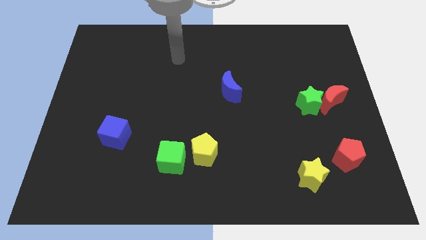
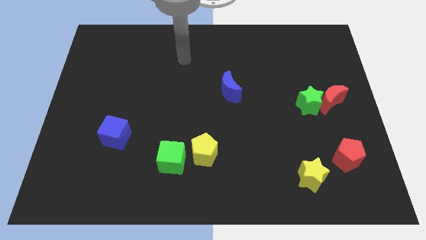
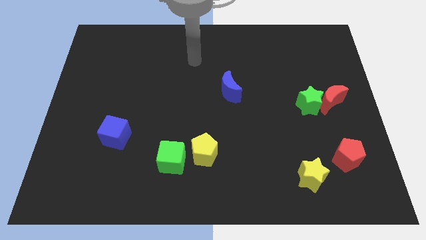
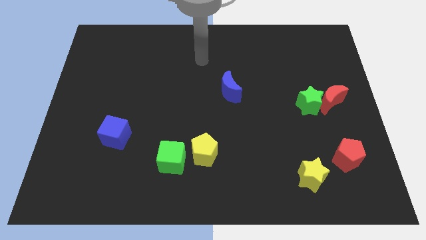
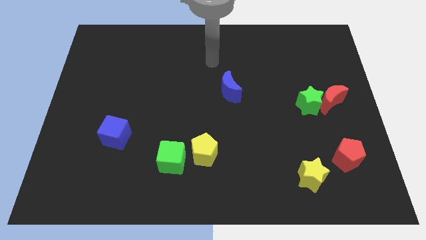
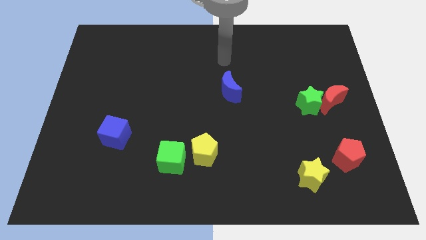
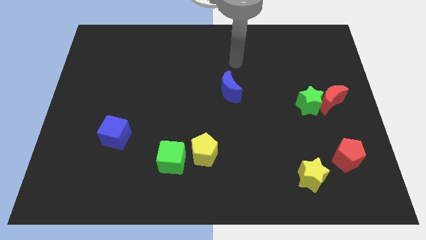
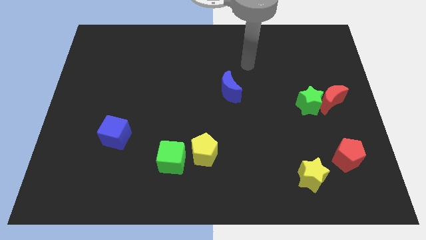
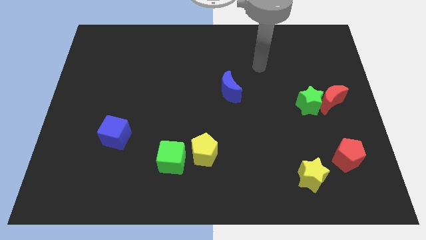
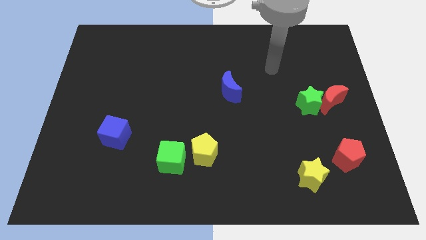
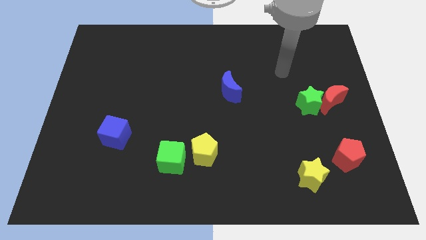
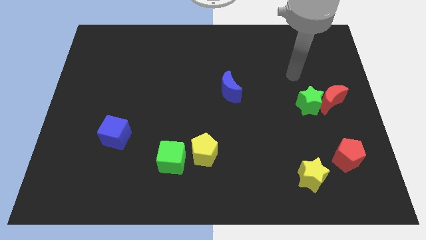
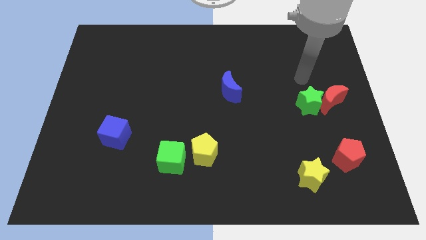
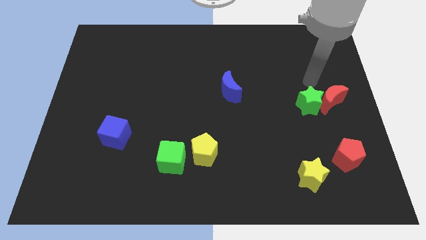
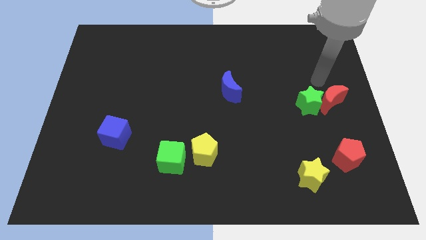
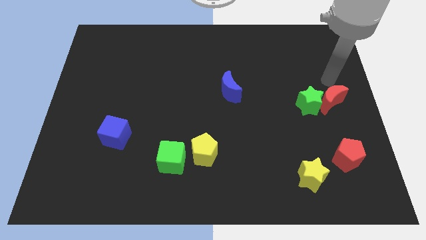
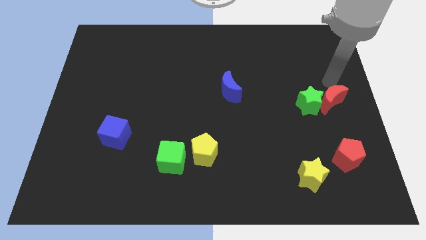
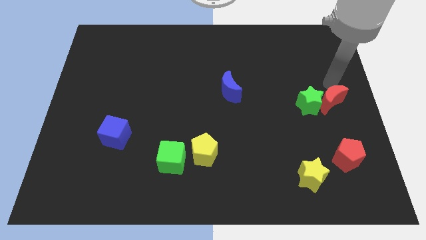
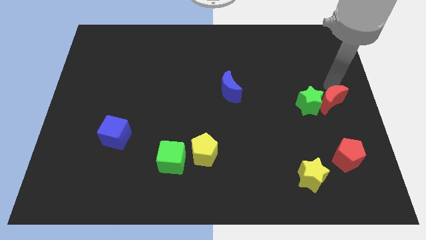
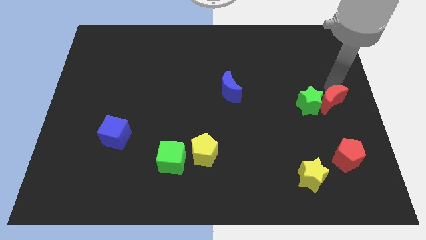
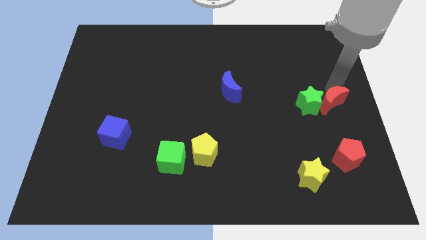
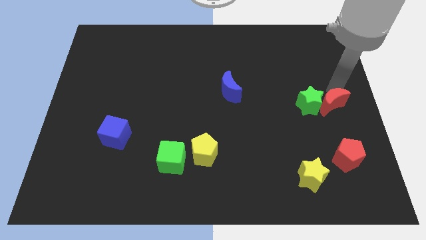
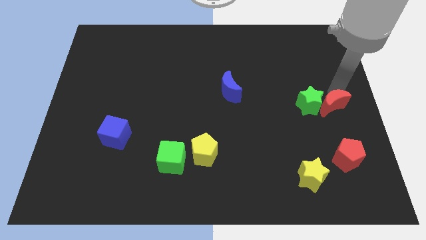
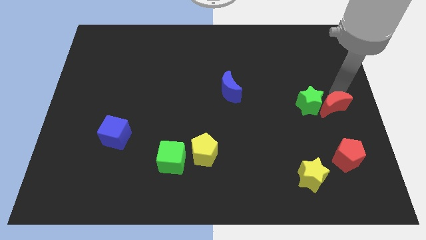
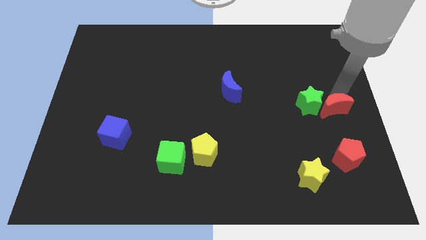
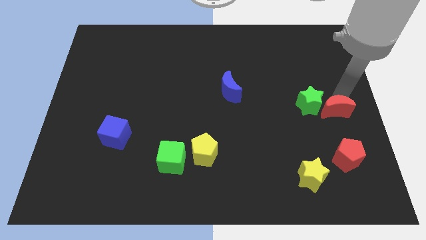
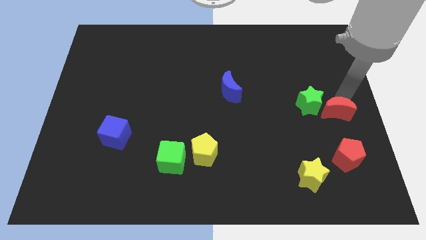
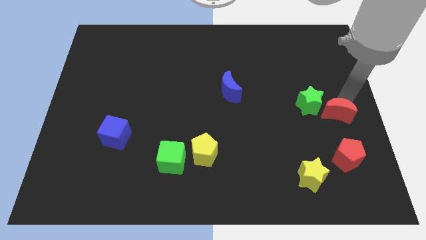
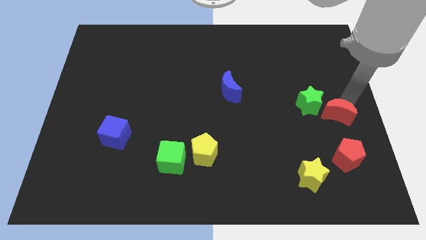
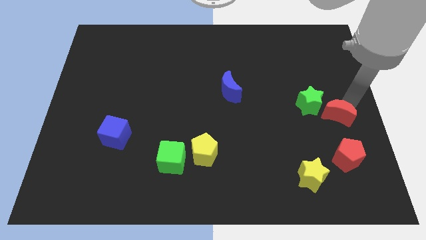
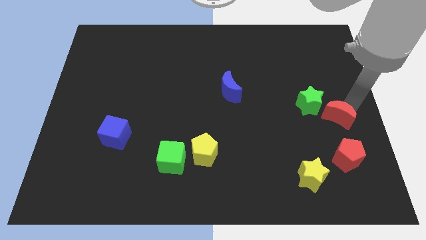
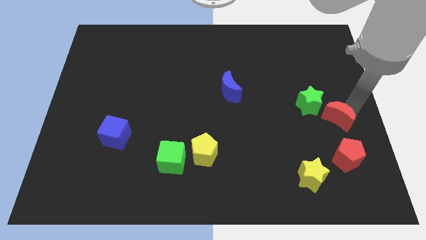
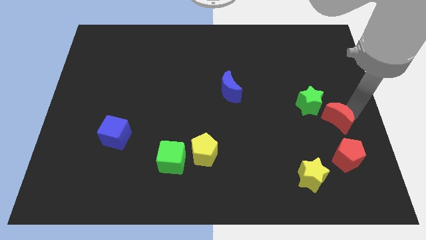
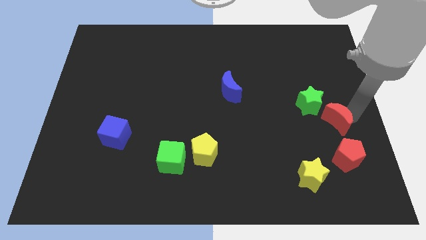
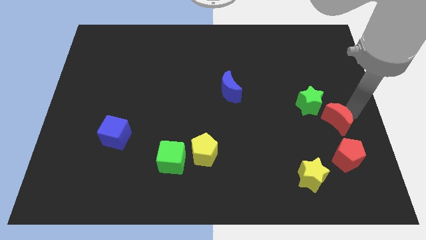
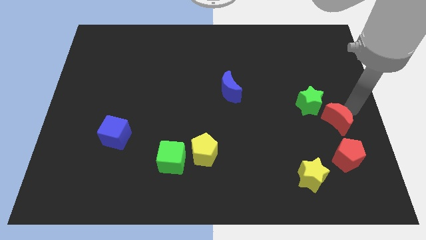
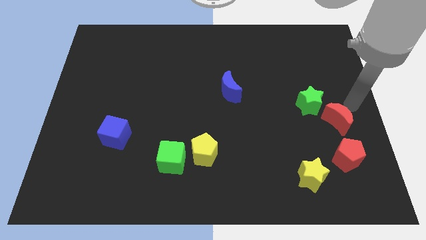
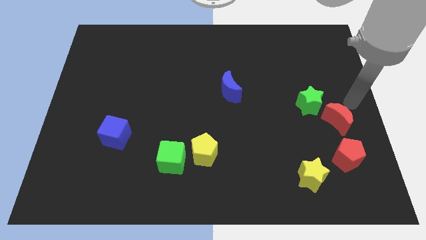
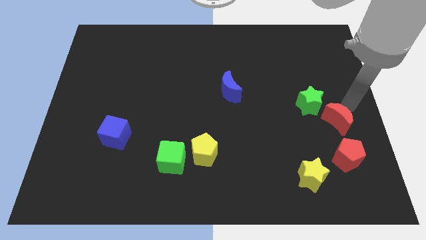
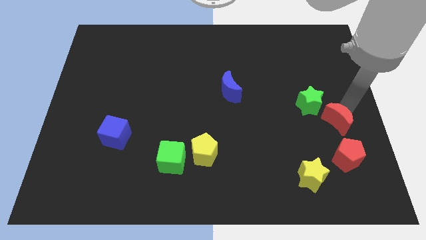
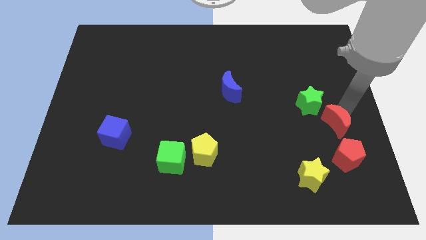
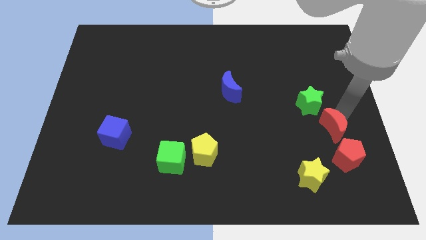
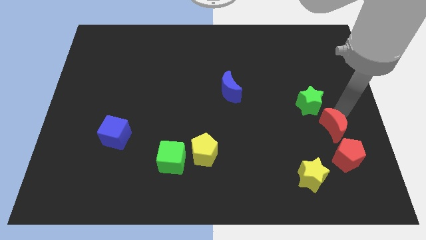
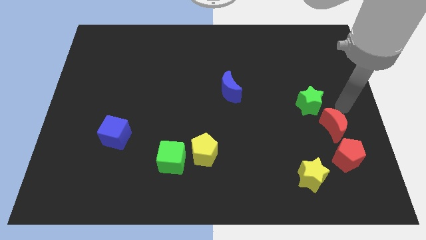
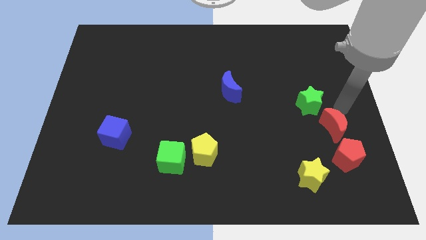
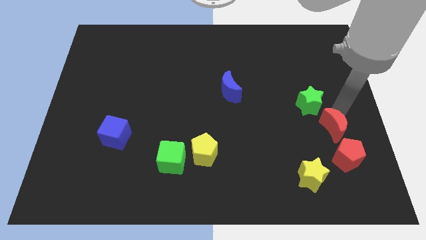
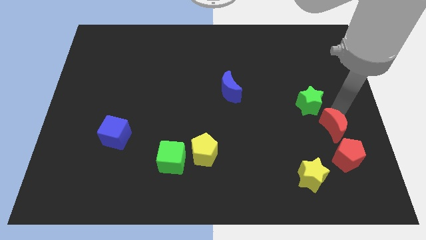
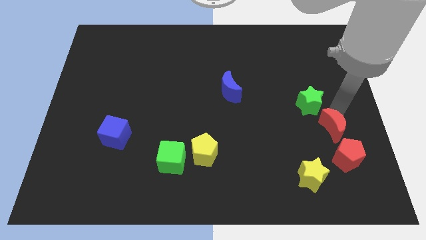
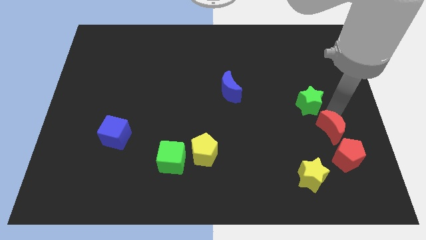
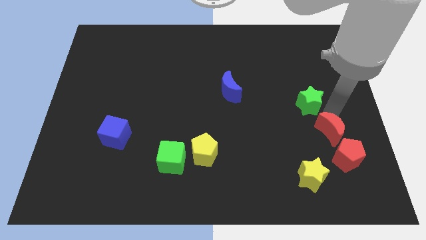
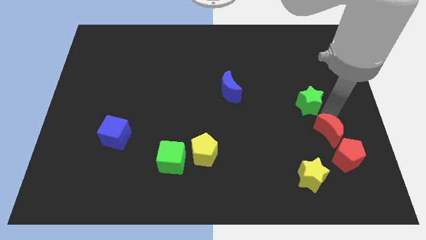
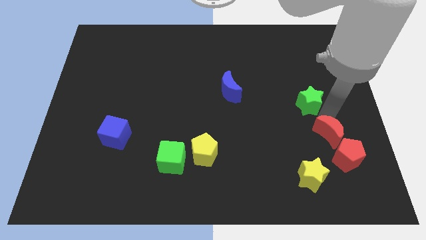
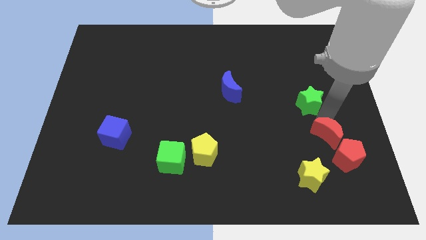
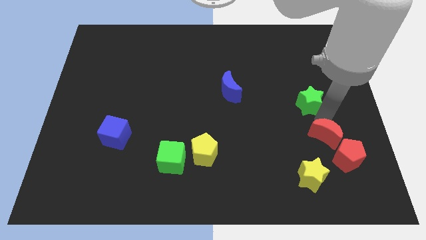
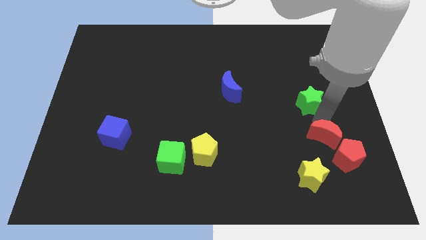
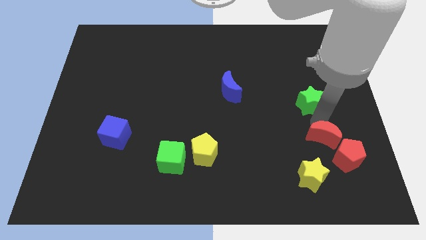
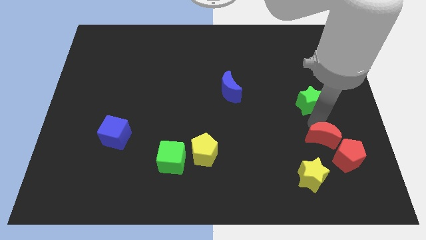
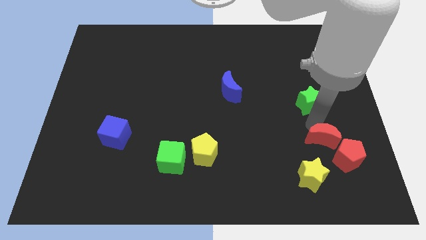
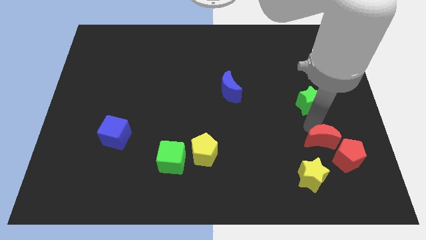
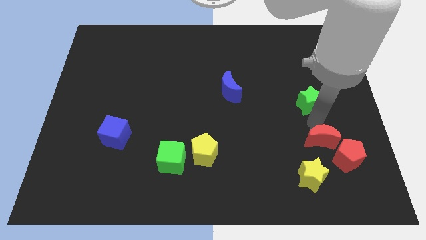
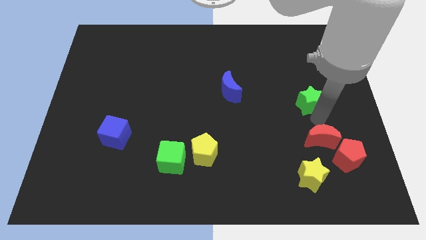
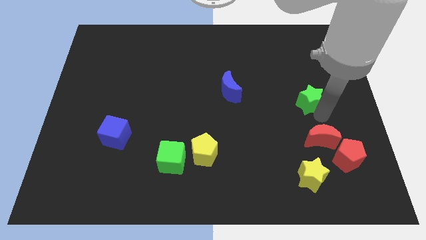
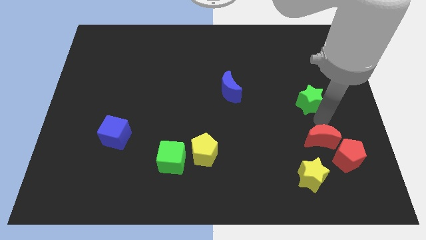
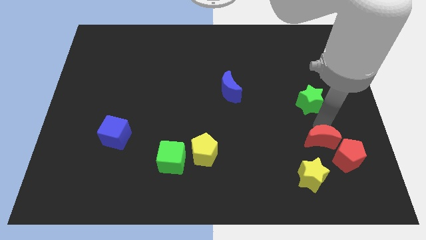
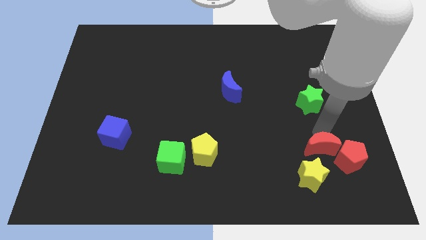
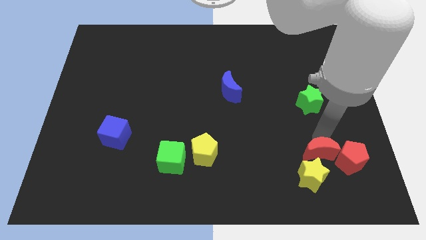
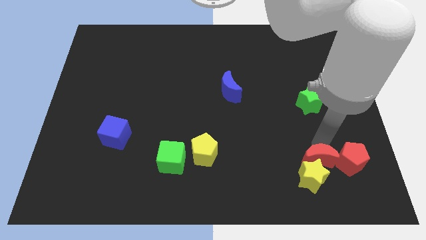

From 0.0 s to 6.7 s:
slide the red moon towards the yellow star

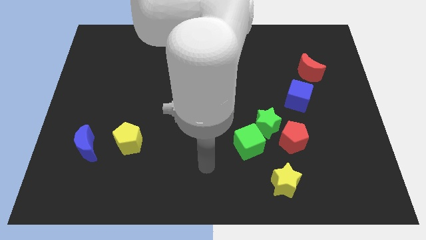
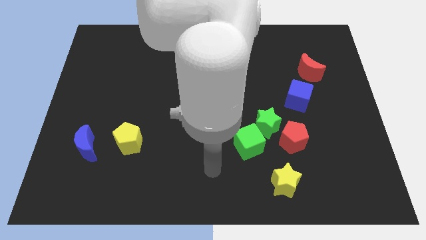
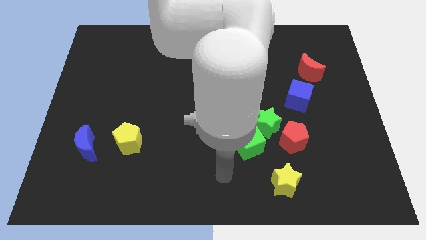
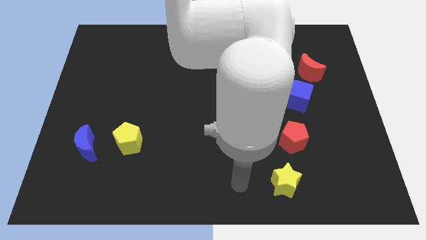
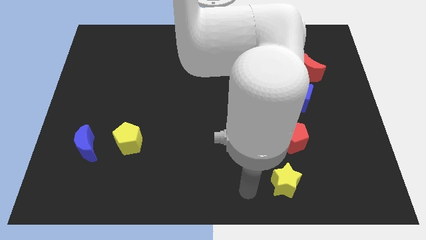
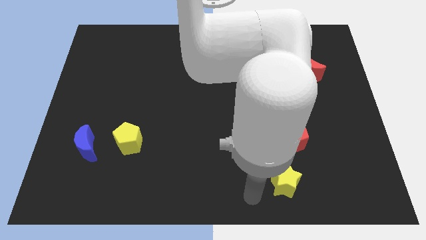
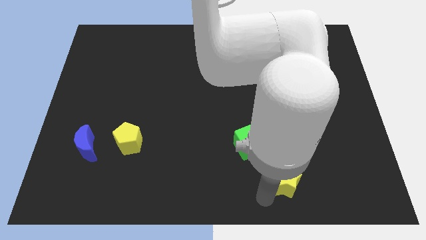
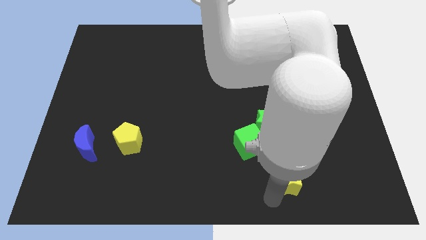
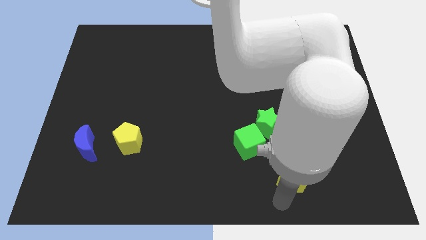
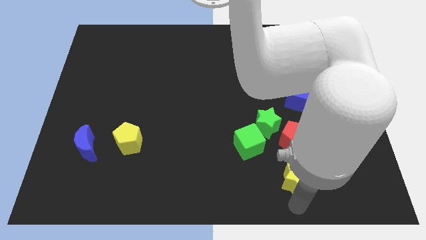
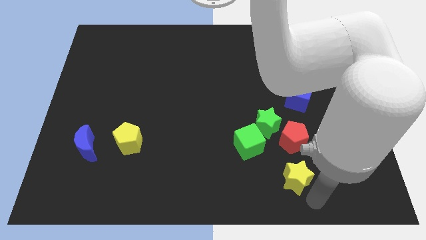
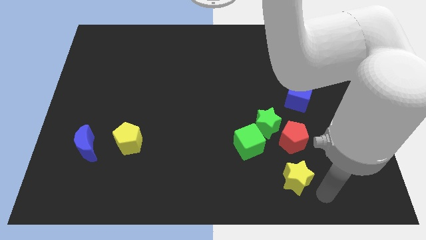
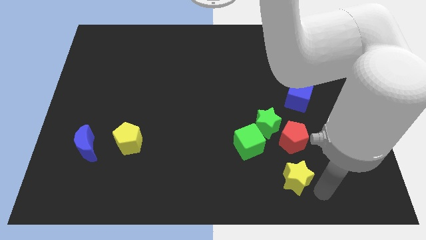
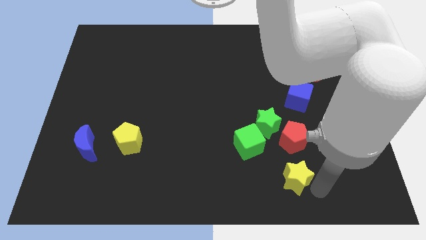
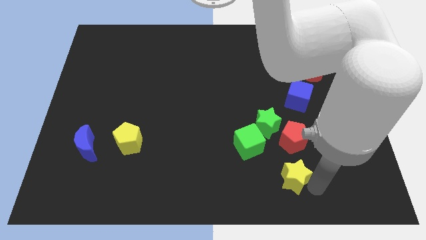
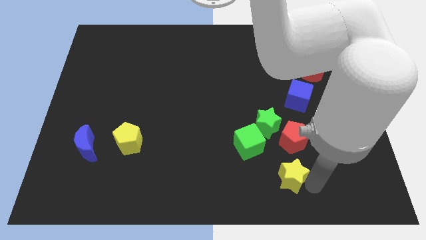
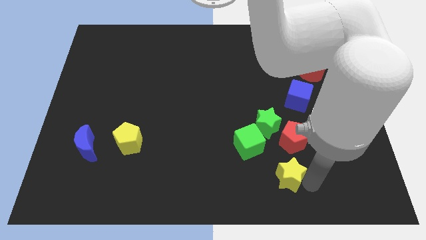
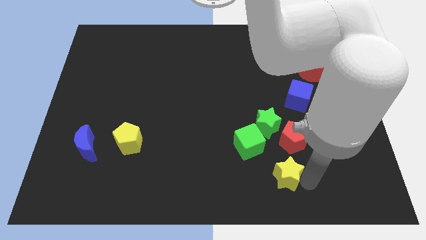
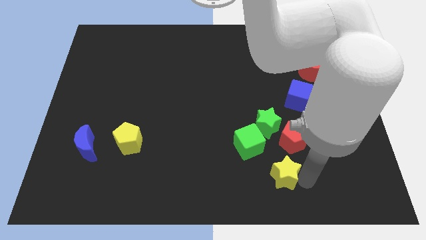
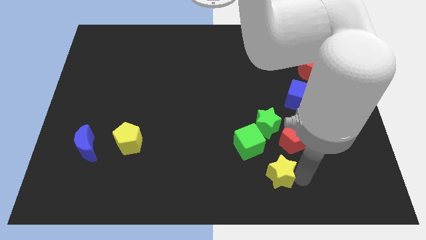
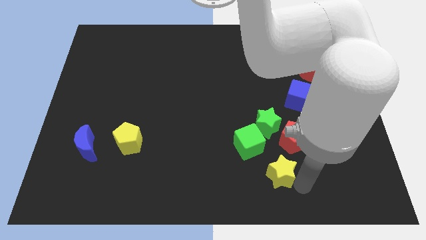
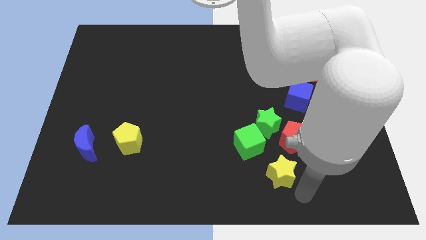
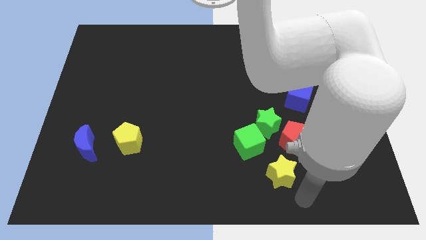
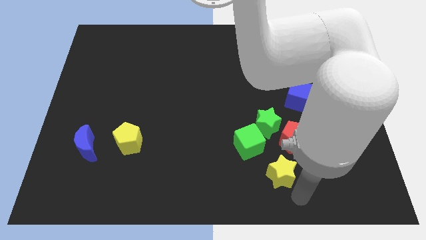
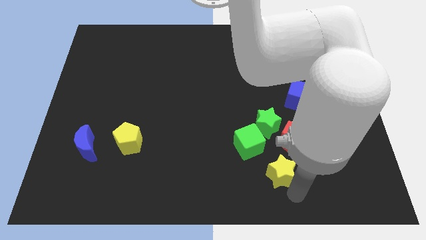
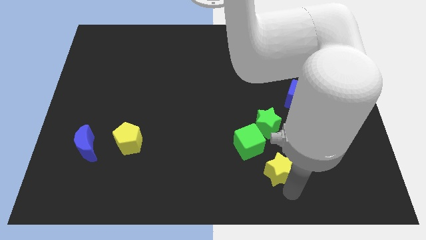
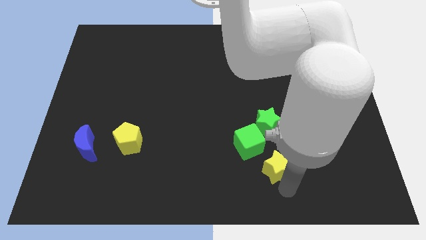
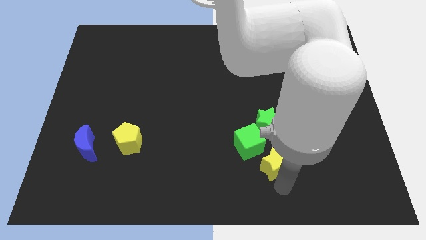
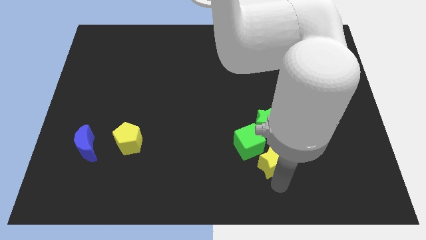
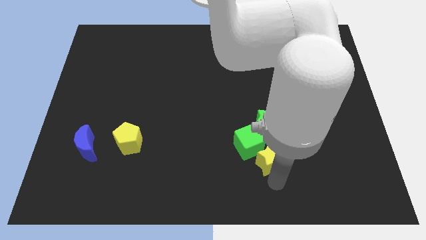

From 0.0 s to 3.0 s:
slide the yellow star to the green cube
